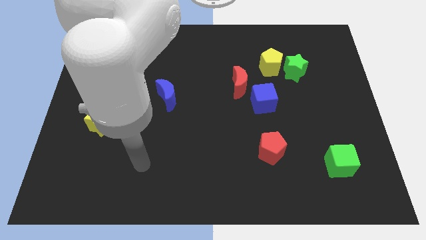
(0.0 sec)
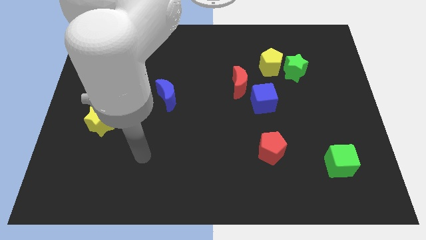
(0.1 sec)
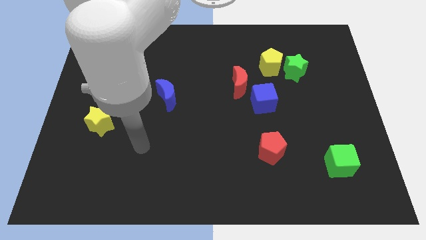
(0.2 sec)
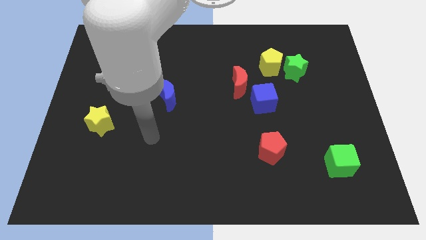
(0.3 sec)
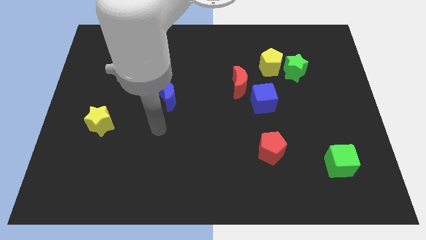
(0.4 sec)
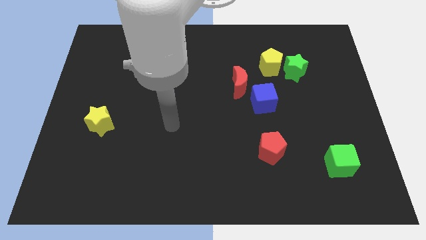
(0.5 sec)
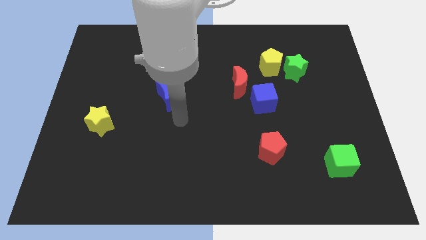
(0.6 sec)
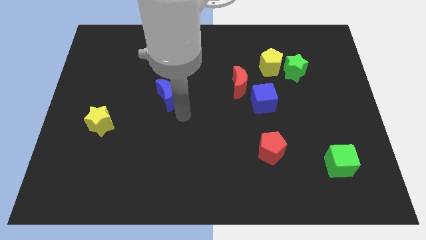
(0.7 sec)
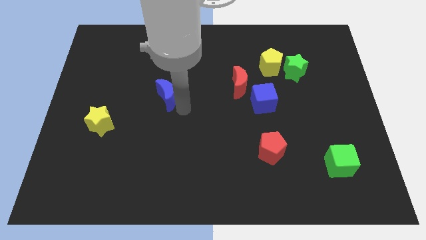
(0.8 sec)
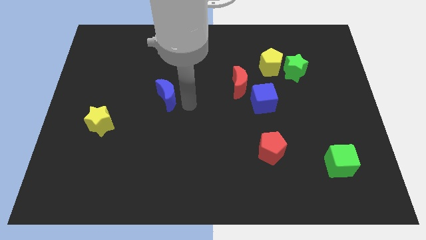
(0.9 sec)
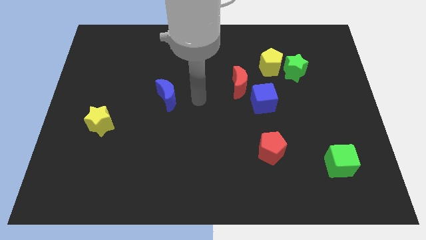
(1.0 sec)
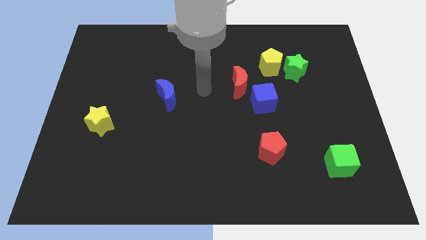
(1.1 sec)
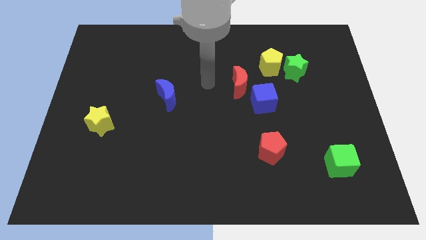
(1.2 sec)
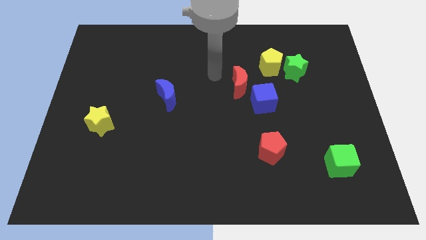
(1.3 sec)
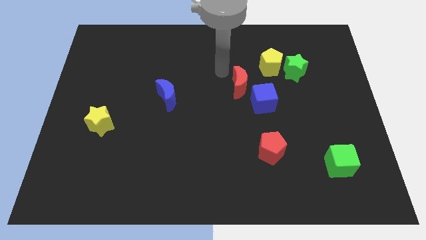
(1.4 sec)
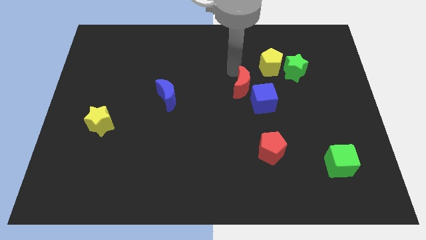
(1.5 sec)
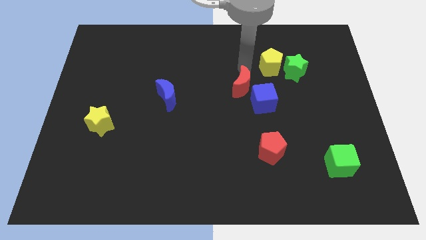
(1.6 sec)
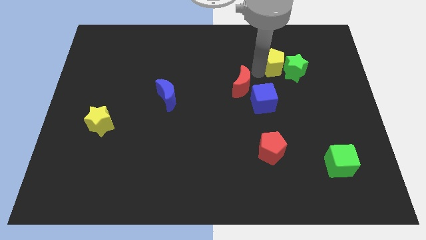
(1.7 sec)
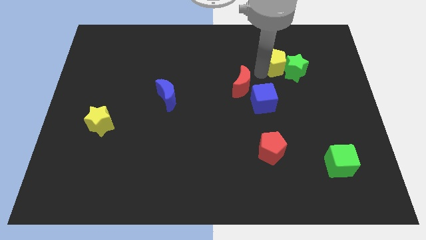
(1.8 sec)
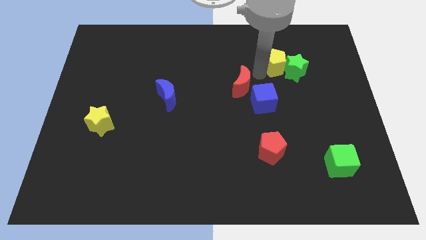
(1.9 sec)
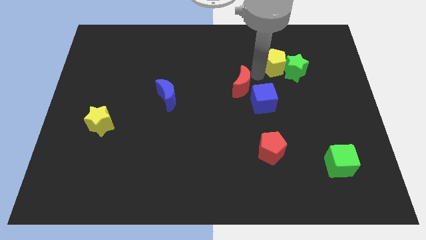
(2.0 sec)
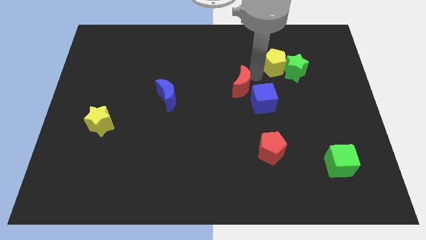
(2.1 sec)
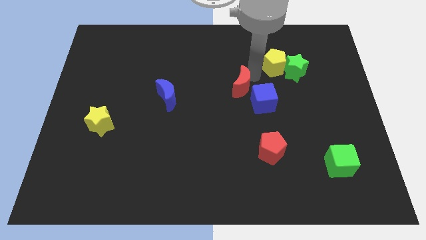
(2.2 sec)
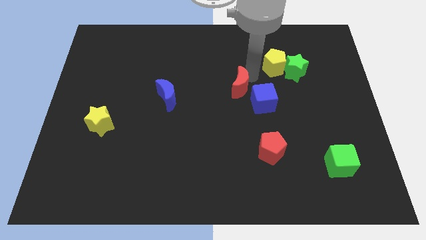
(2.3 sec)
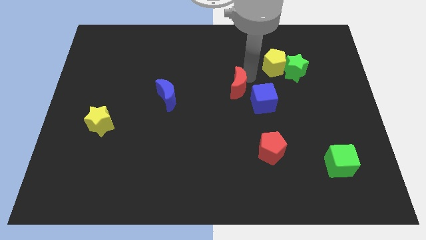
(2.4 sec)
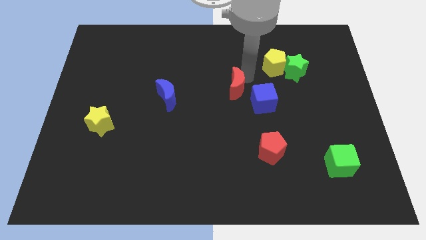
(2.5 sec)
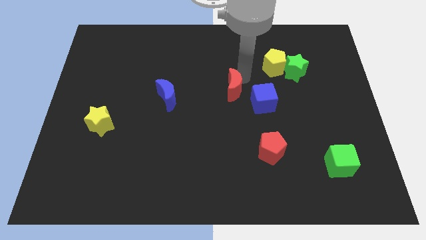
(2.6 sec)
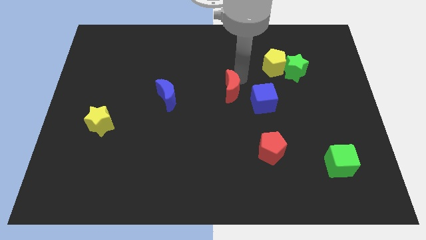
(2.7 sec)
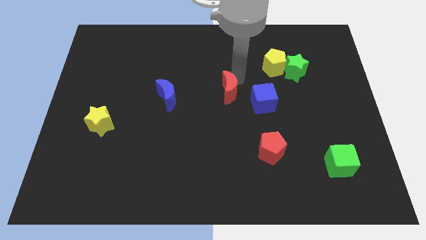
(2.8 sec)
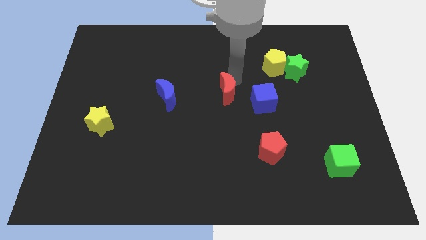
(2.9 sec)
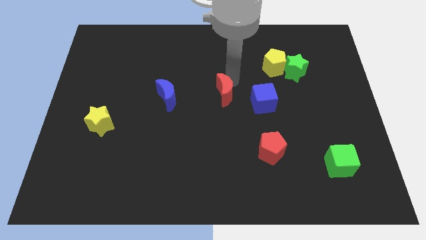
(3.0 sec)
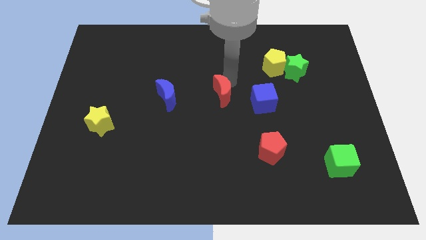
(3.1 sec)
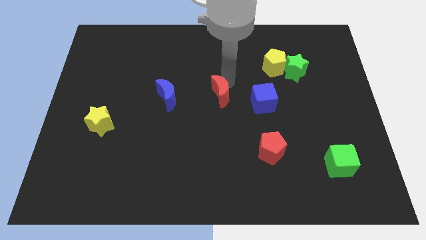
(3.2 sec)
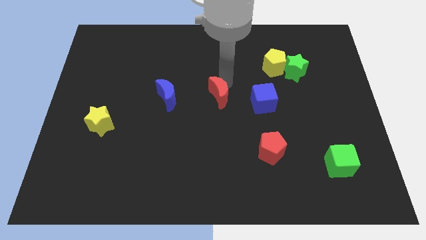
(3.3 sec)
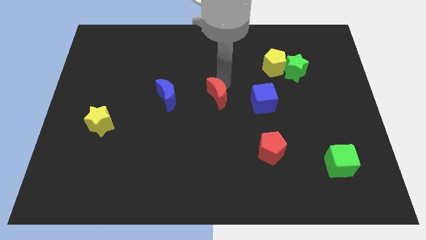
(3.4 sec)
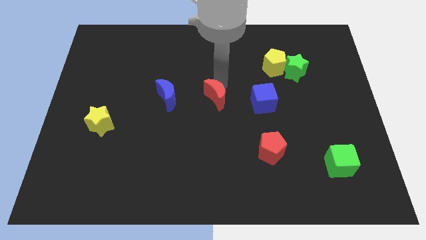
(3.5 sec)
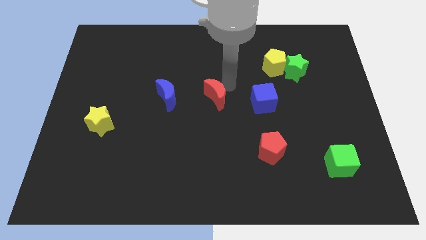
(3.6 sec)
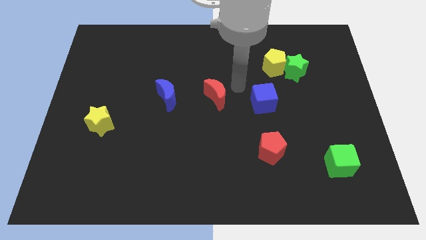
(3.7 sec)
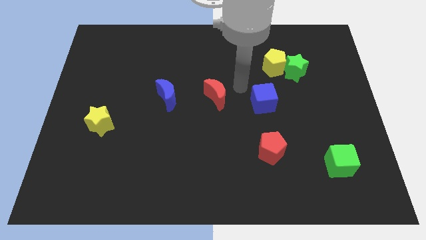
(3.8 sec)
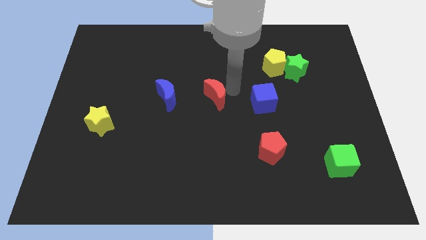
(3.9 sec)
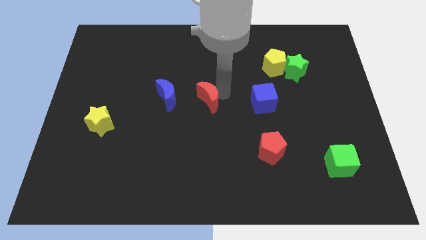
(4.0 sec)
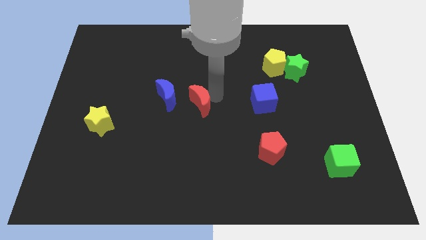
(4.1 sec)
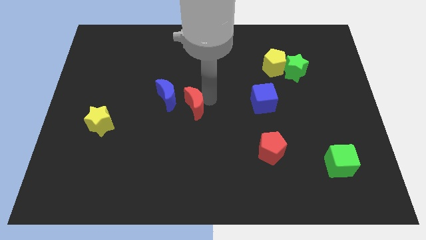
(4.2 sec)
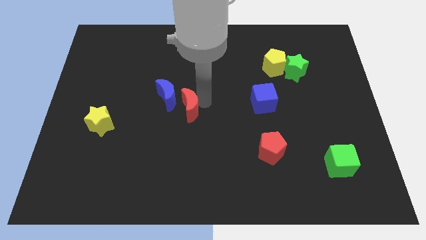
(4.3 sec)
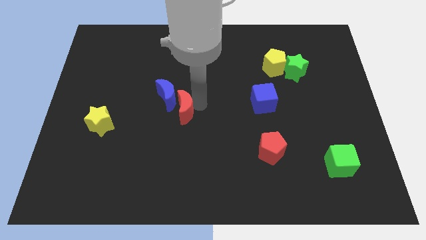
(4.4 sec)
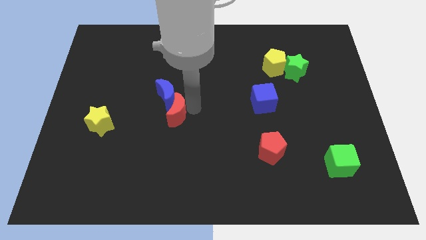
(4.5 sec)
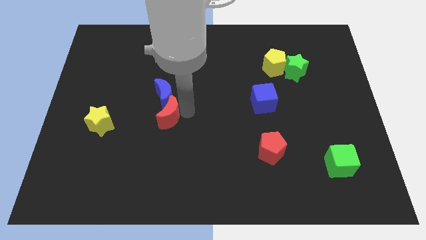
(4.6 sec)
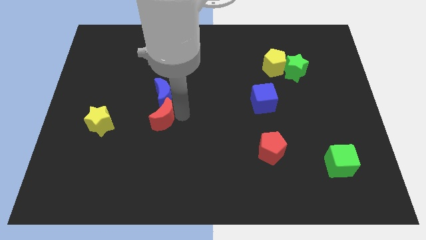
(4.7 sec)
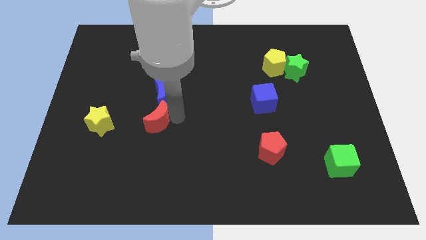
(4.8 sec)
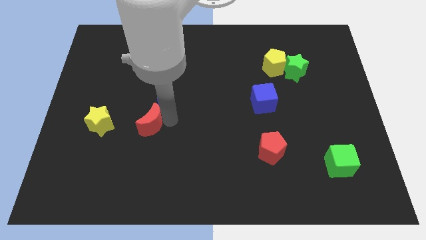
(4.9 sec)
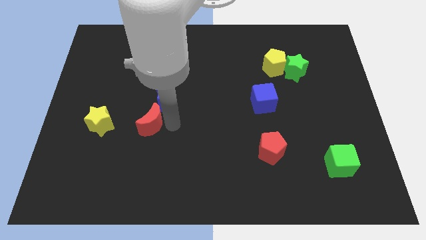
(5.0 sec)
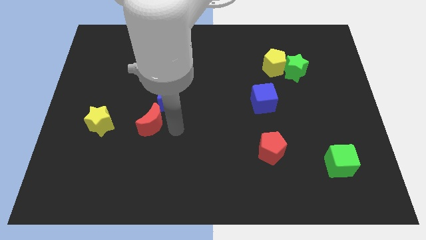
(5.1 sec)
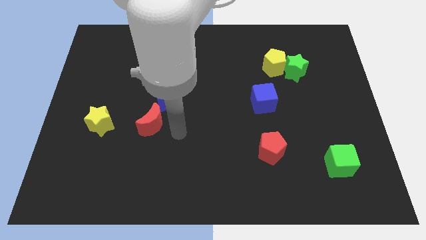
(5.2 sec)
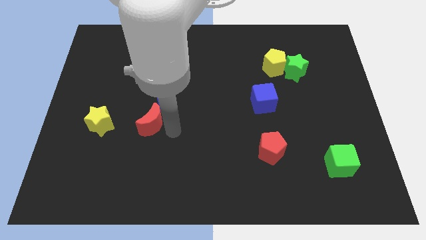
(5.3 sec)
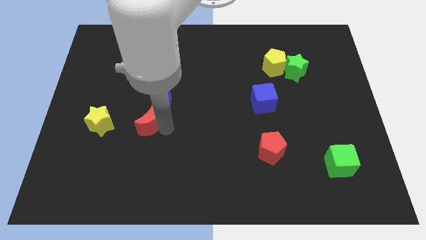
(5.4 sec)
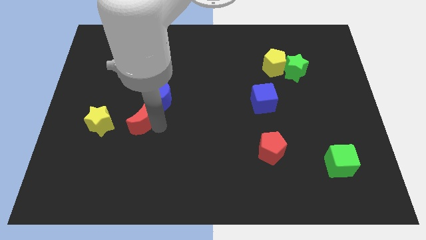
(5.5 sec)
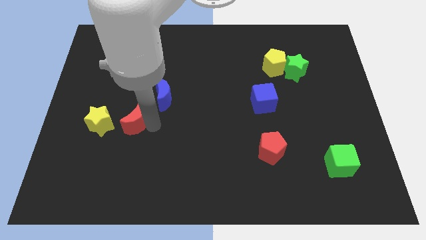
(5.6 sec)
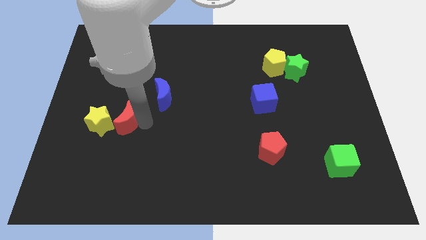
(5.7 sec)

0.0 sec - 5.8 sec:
slide the red moon next to the yellow star

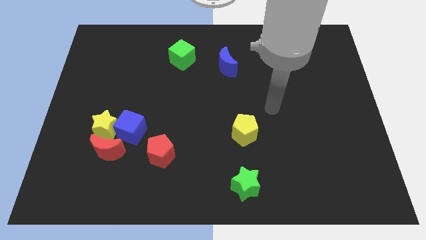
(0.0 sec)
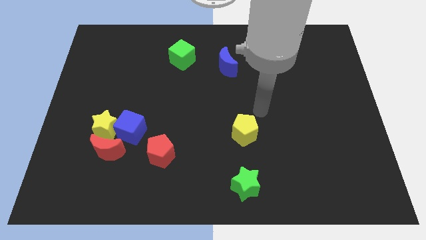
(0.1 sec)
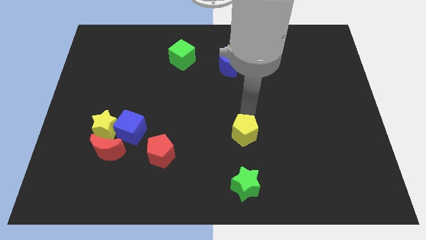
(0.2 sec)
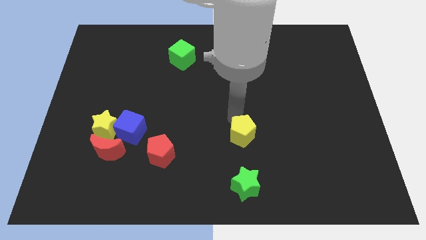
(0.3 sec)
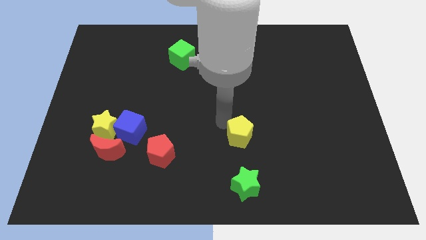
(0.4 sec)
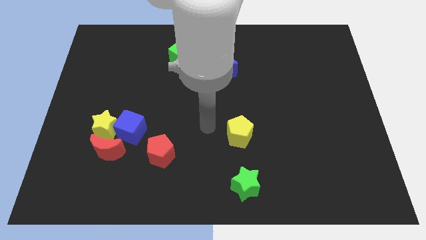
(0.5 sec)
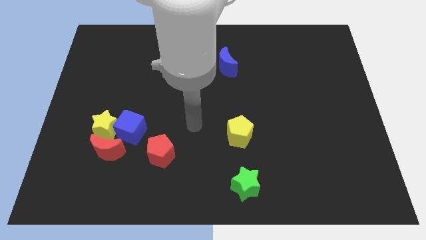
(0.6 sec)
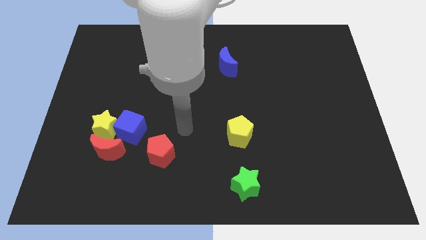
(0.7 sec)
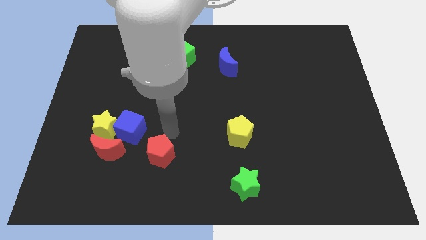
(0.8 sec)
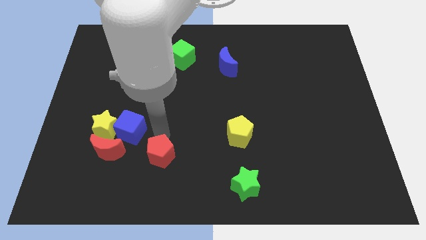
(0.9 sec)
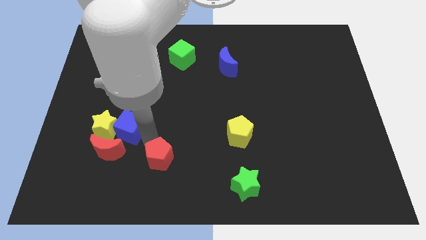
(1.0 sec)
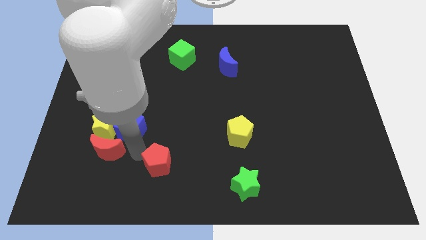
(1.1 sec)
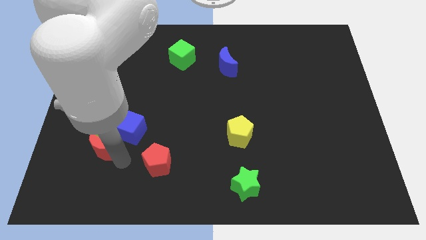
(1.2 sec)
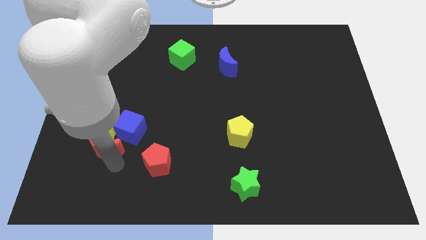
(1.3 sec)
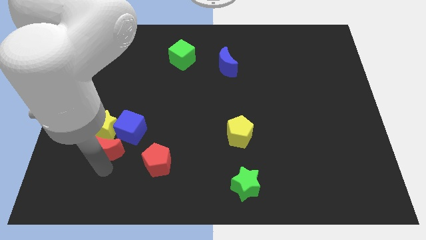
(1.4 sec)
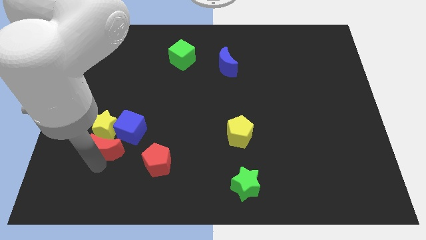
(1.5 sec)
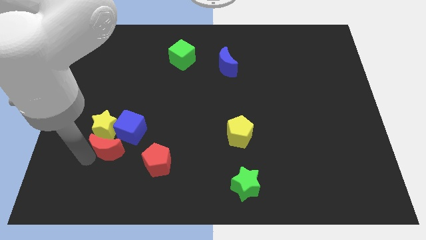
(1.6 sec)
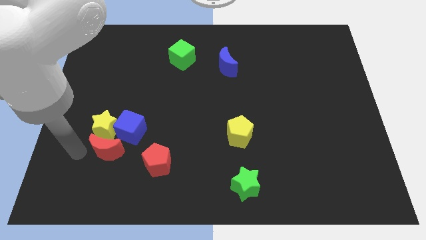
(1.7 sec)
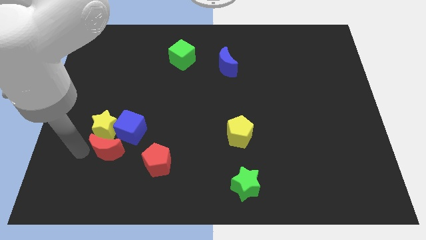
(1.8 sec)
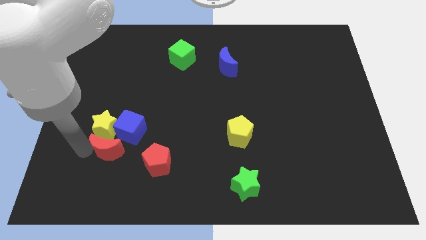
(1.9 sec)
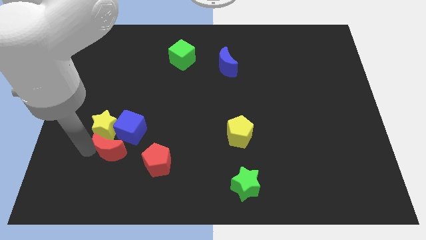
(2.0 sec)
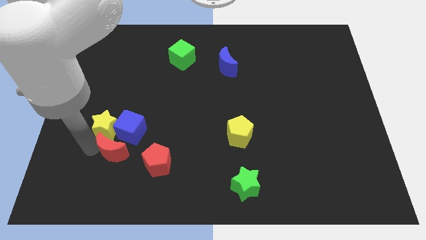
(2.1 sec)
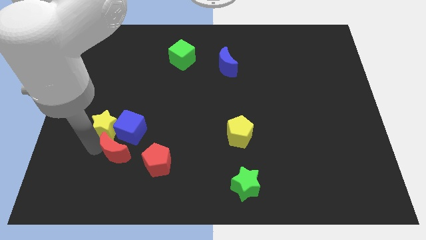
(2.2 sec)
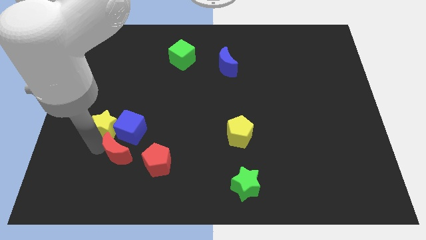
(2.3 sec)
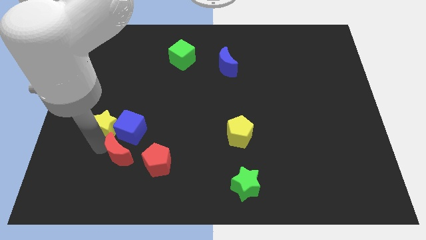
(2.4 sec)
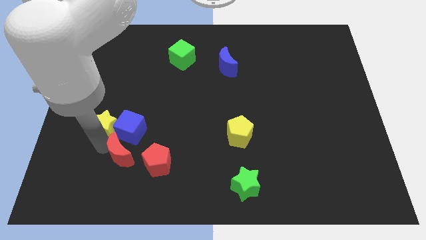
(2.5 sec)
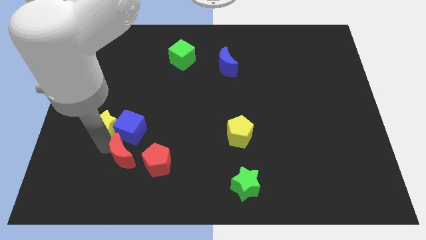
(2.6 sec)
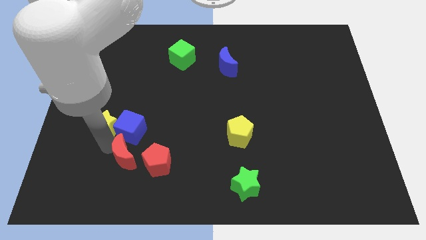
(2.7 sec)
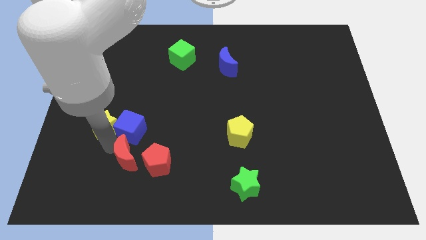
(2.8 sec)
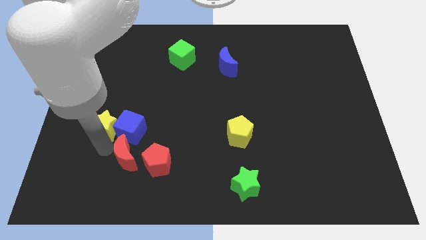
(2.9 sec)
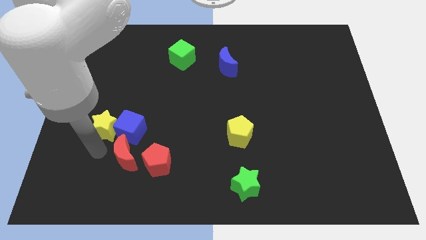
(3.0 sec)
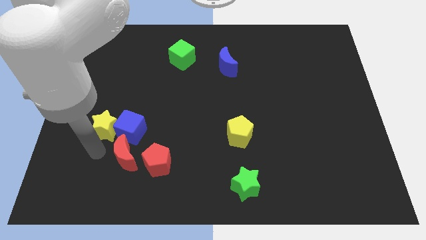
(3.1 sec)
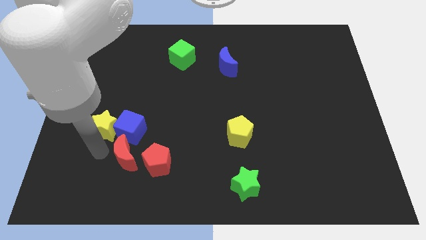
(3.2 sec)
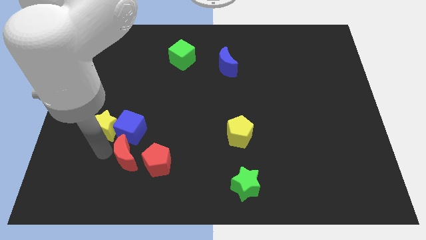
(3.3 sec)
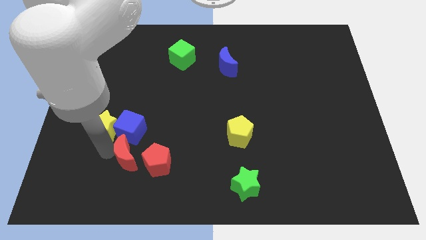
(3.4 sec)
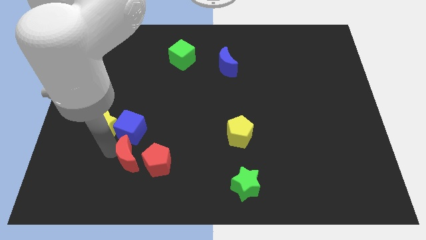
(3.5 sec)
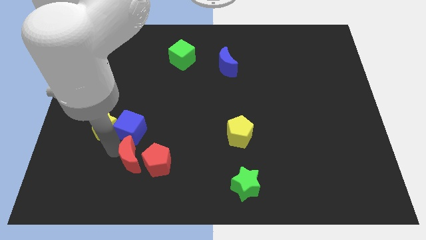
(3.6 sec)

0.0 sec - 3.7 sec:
move the red moon towards the red pentagon
